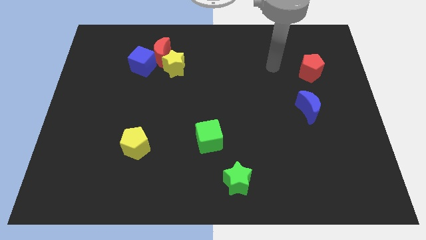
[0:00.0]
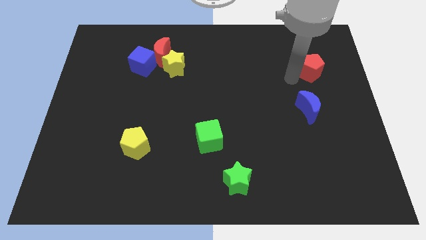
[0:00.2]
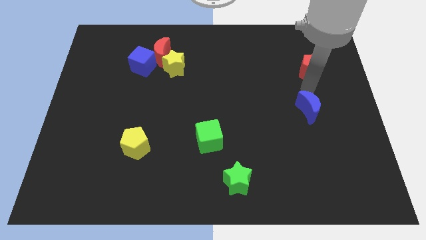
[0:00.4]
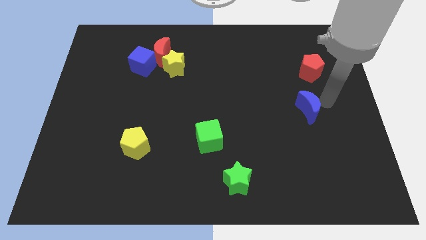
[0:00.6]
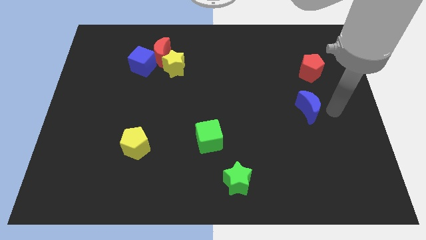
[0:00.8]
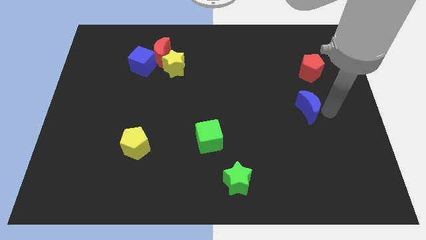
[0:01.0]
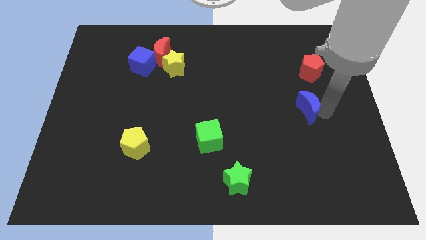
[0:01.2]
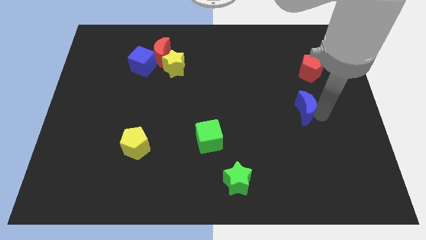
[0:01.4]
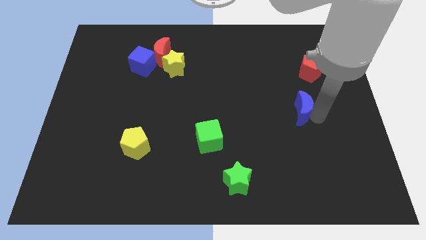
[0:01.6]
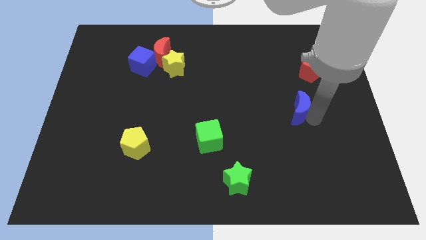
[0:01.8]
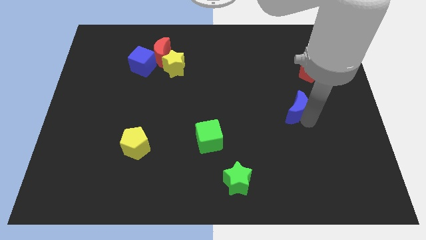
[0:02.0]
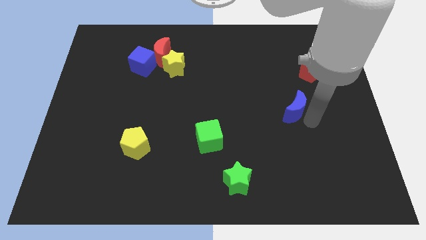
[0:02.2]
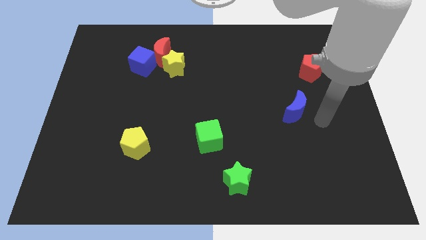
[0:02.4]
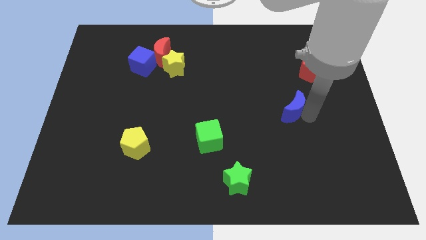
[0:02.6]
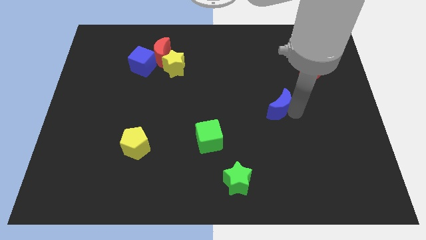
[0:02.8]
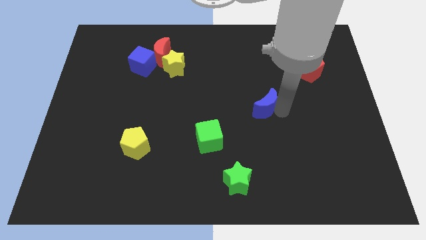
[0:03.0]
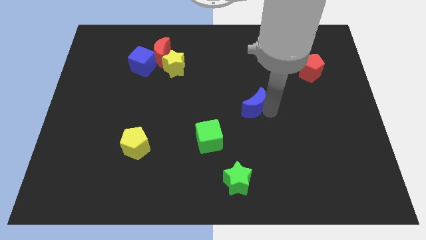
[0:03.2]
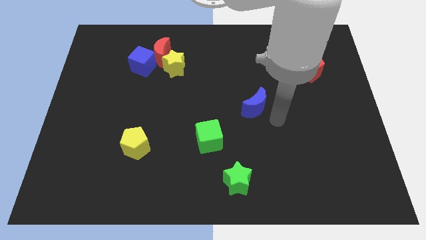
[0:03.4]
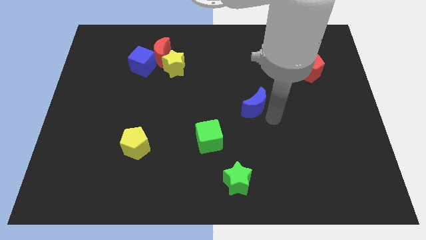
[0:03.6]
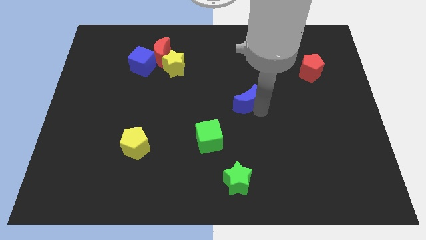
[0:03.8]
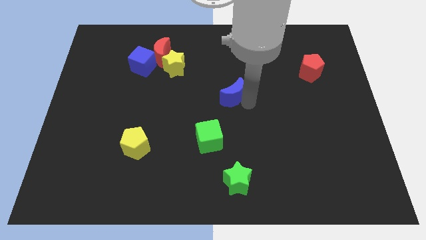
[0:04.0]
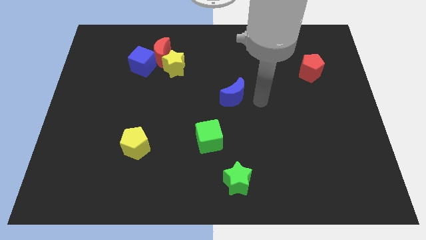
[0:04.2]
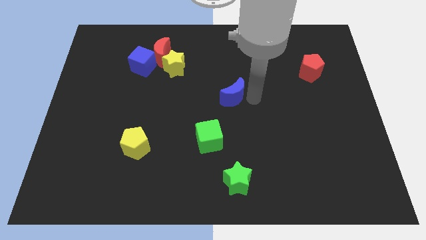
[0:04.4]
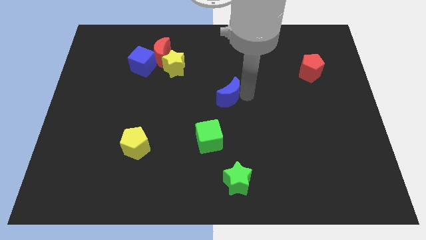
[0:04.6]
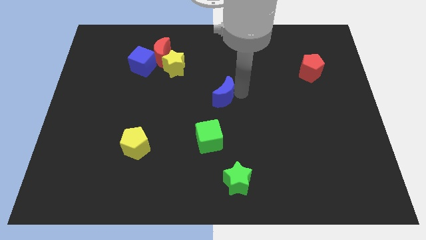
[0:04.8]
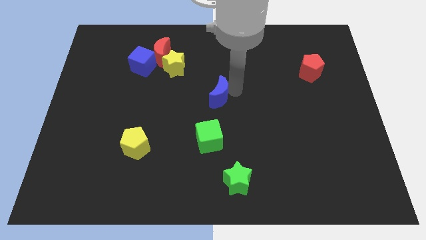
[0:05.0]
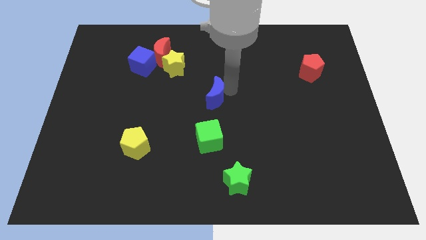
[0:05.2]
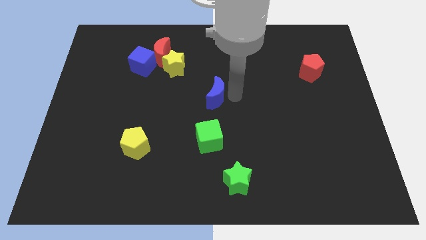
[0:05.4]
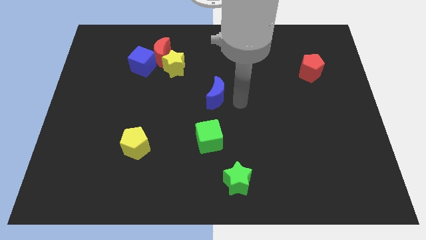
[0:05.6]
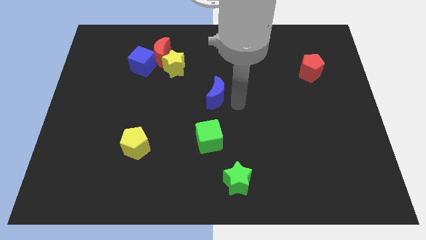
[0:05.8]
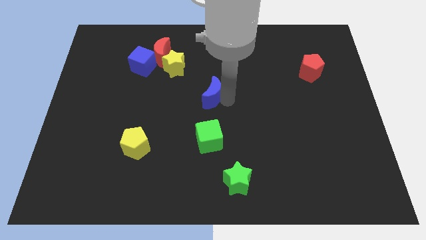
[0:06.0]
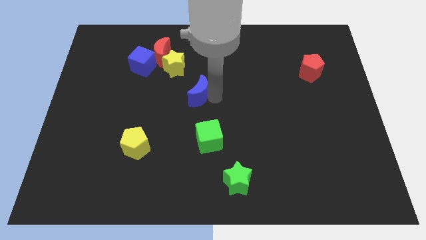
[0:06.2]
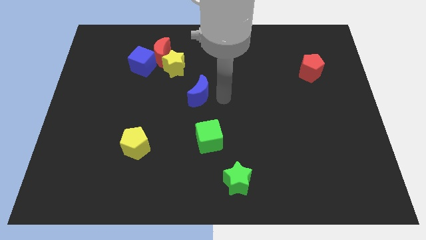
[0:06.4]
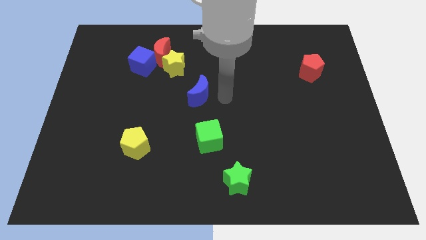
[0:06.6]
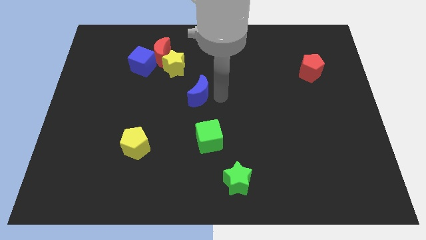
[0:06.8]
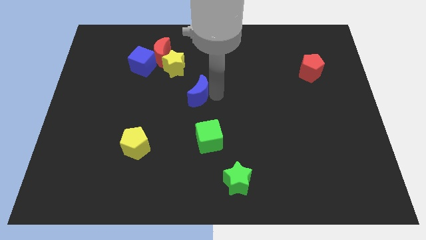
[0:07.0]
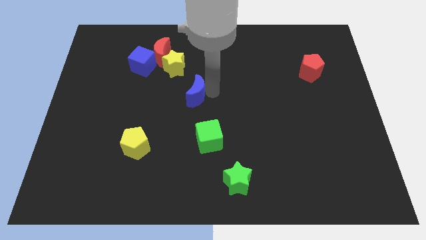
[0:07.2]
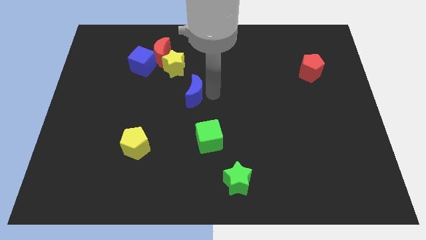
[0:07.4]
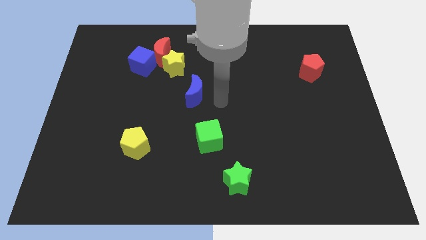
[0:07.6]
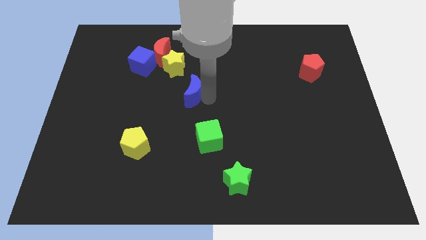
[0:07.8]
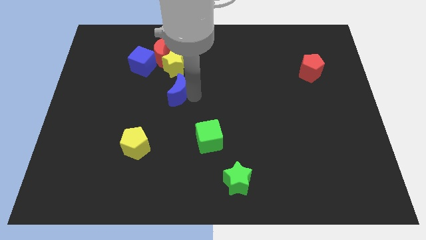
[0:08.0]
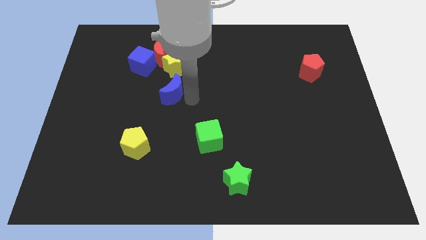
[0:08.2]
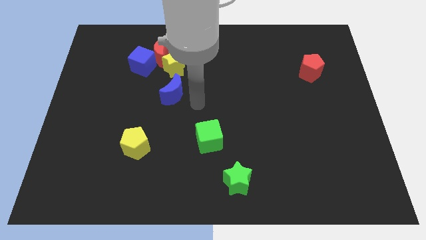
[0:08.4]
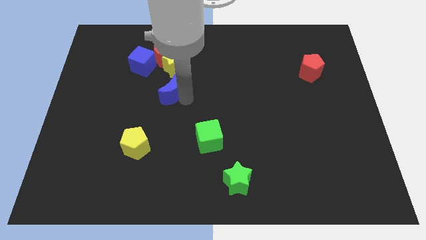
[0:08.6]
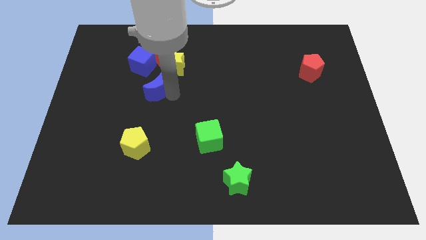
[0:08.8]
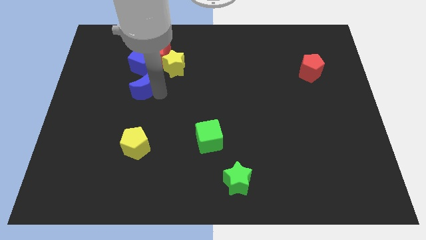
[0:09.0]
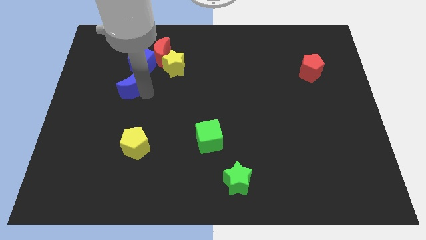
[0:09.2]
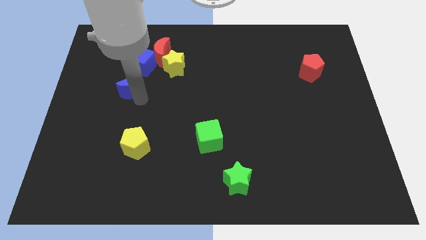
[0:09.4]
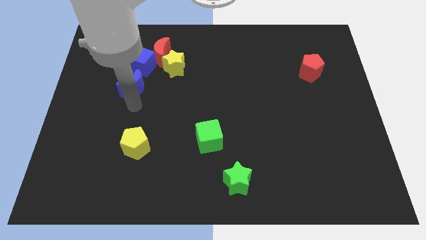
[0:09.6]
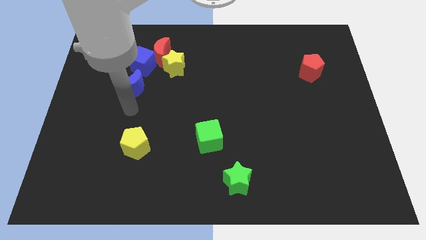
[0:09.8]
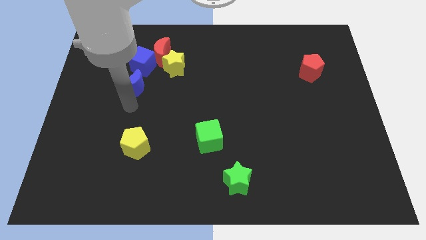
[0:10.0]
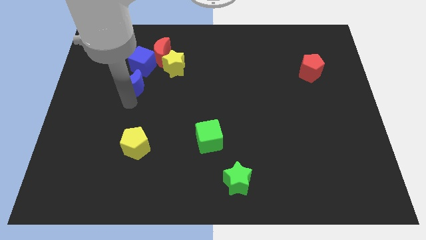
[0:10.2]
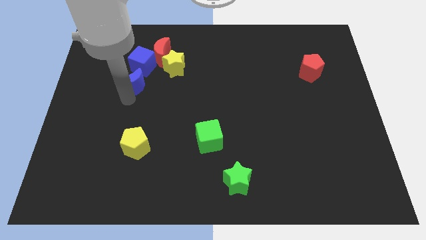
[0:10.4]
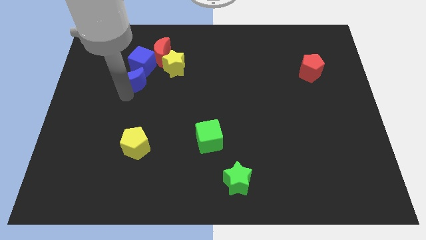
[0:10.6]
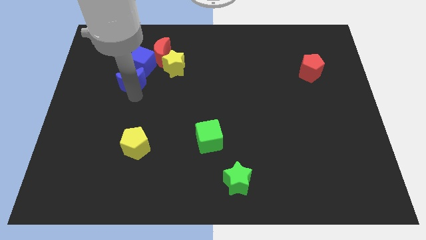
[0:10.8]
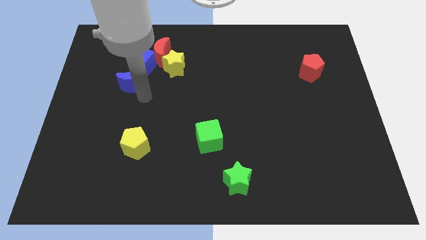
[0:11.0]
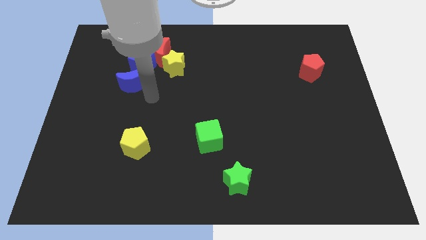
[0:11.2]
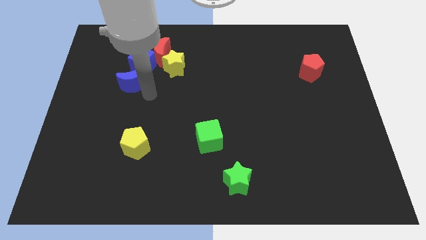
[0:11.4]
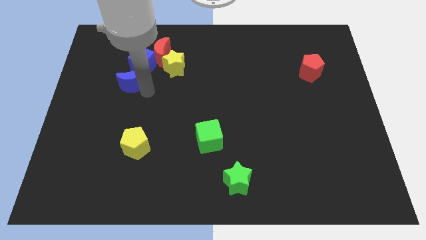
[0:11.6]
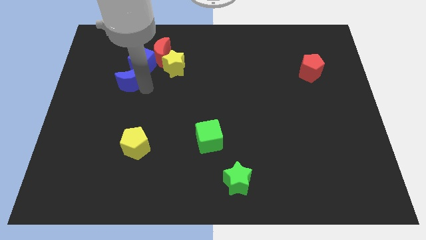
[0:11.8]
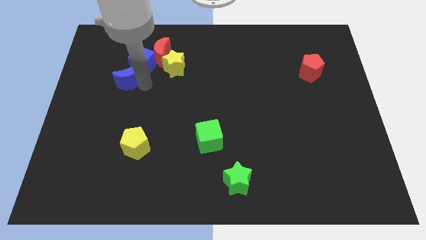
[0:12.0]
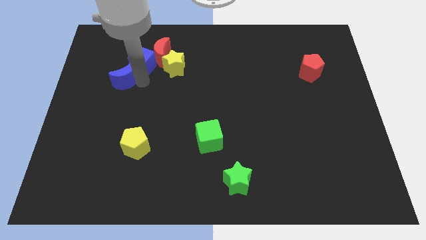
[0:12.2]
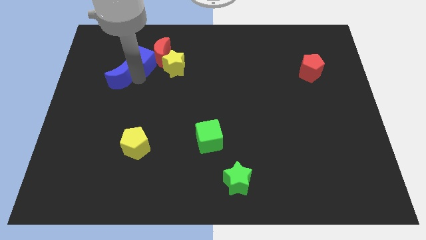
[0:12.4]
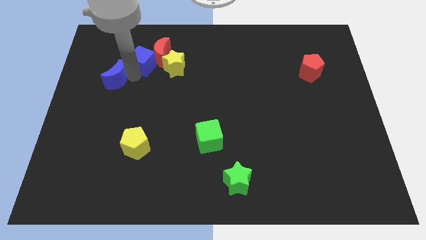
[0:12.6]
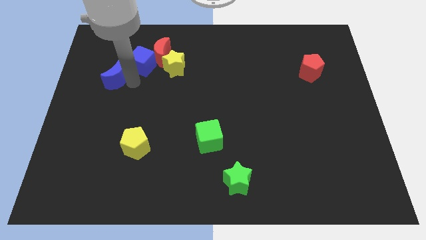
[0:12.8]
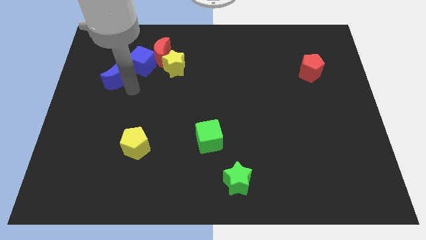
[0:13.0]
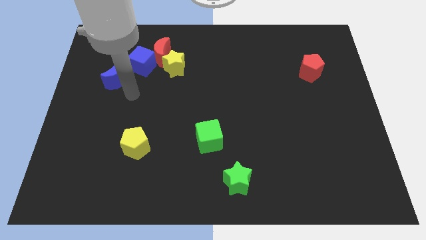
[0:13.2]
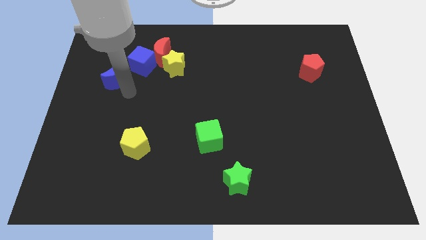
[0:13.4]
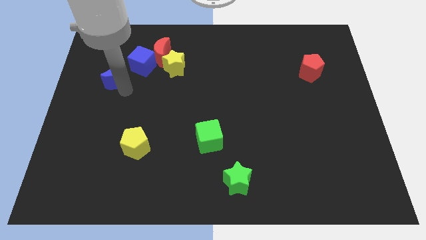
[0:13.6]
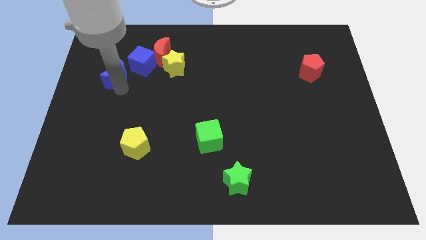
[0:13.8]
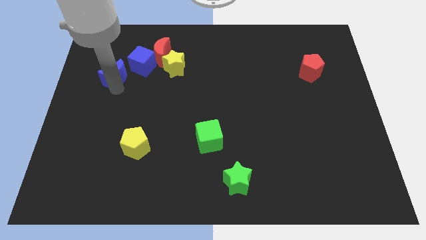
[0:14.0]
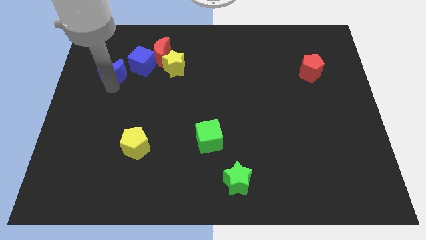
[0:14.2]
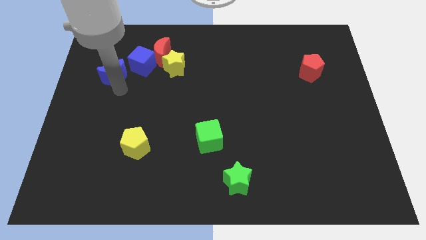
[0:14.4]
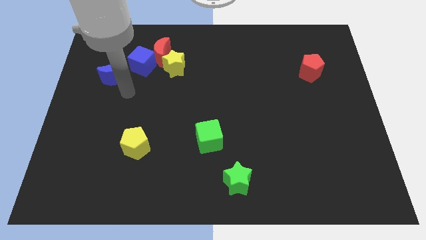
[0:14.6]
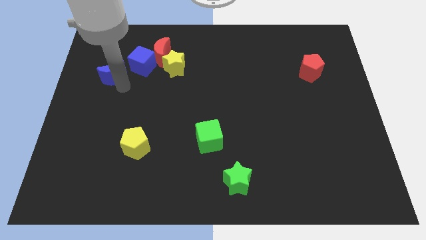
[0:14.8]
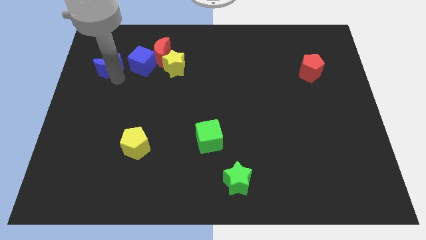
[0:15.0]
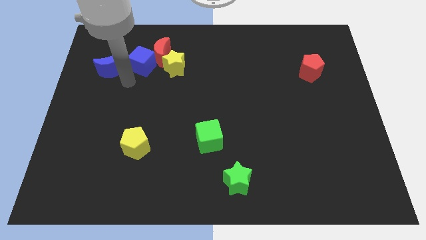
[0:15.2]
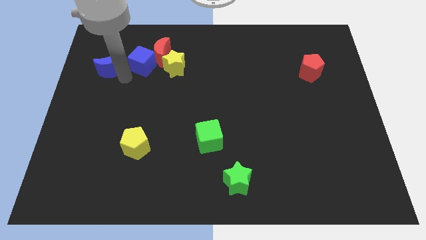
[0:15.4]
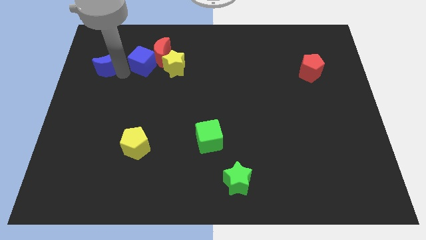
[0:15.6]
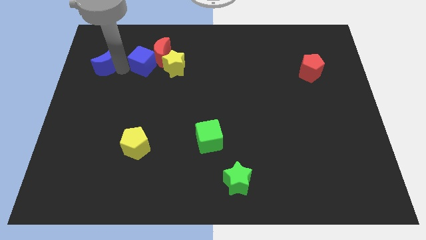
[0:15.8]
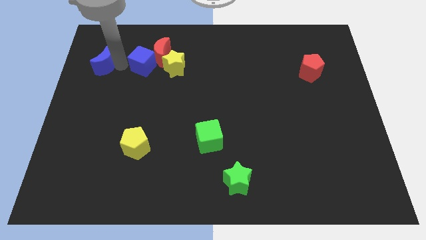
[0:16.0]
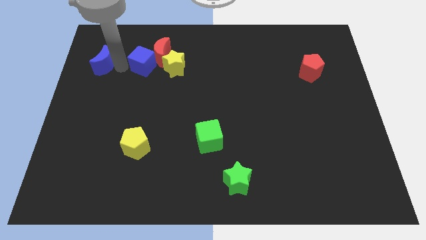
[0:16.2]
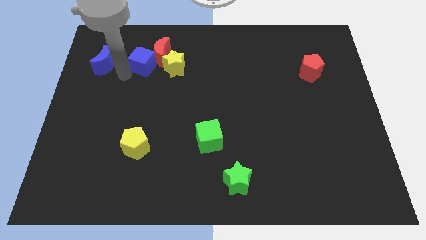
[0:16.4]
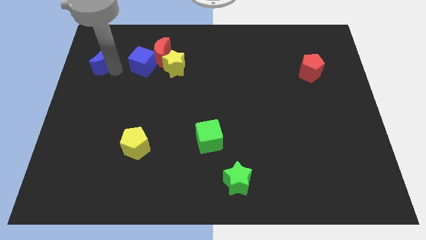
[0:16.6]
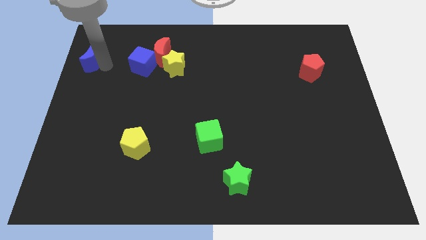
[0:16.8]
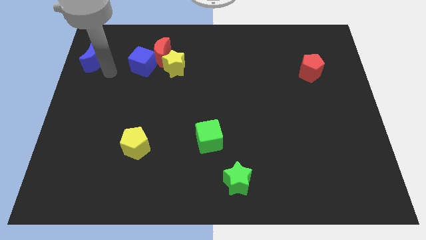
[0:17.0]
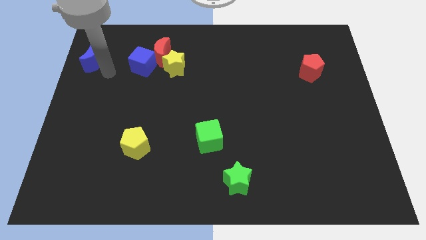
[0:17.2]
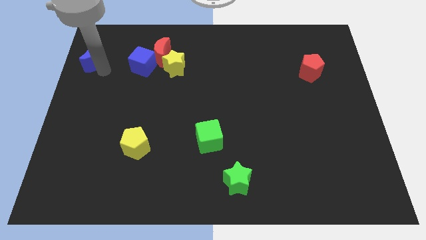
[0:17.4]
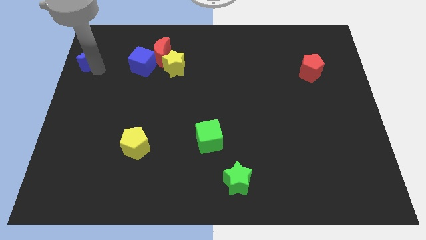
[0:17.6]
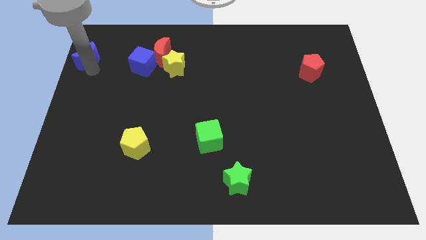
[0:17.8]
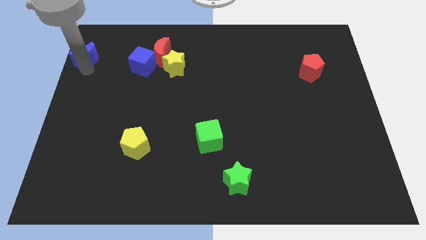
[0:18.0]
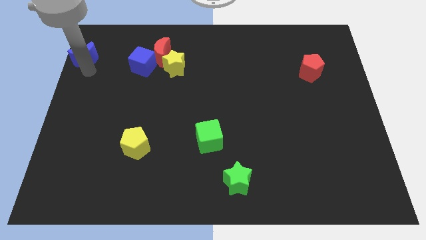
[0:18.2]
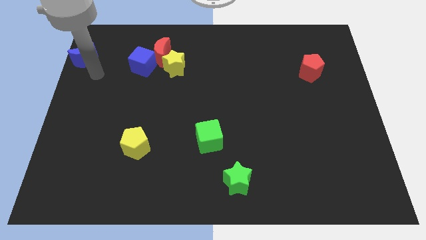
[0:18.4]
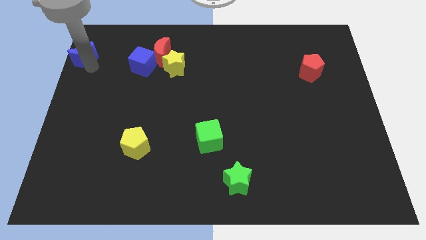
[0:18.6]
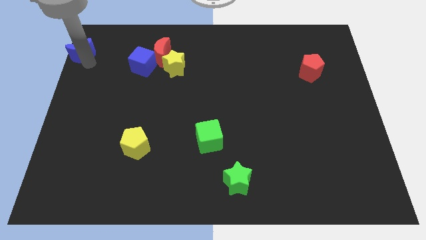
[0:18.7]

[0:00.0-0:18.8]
slide the blue moon to the top left
